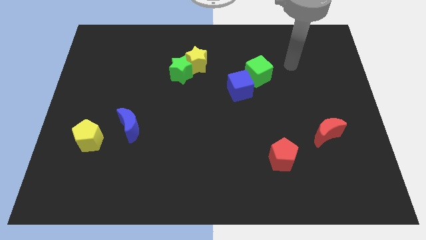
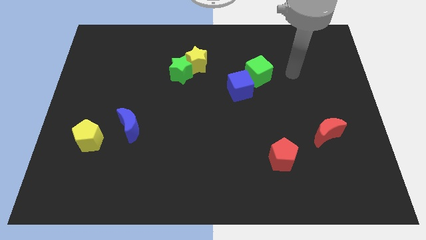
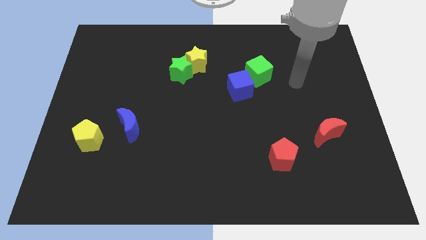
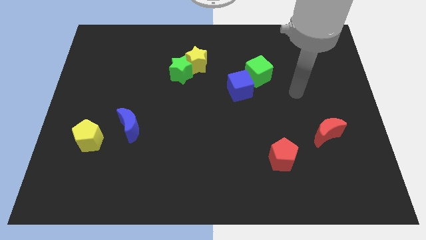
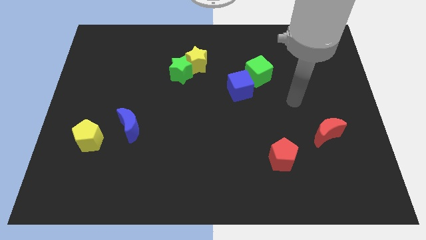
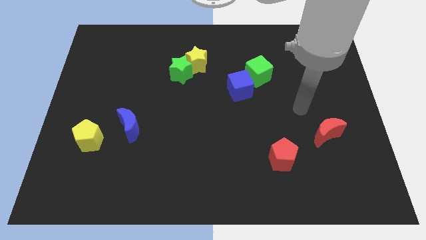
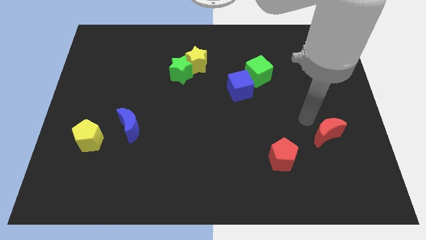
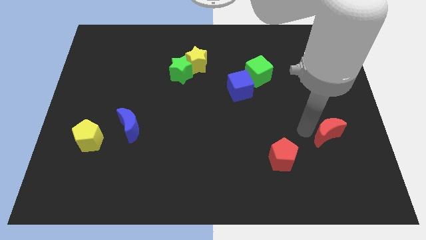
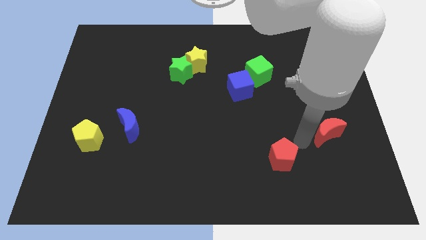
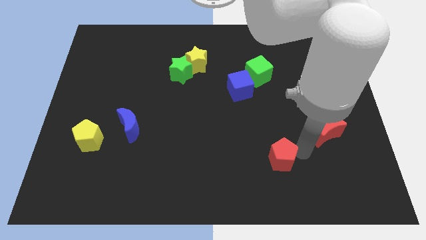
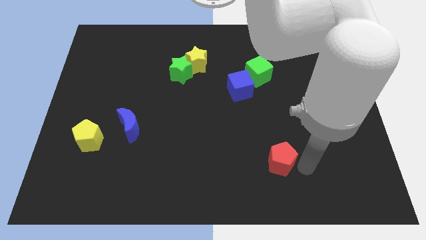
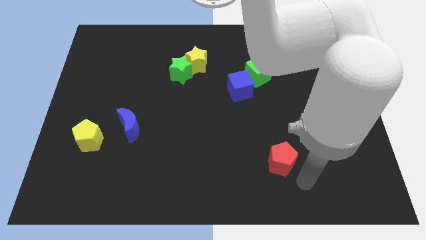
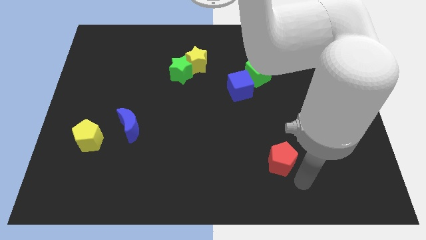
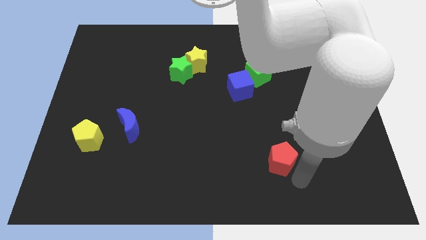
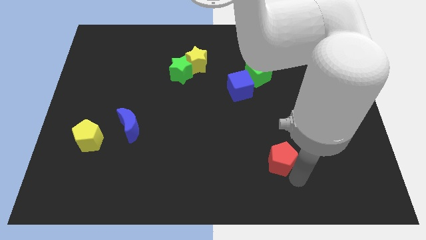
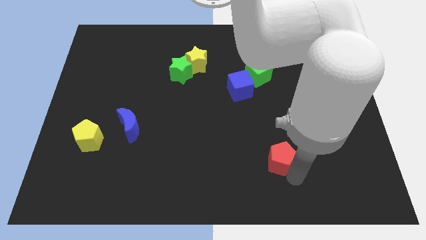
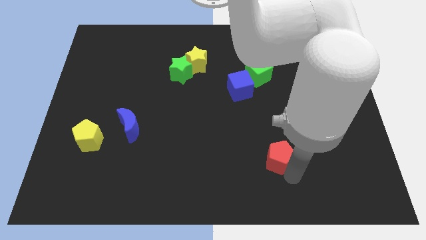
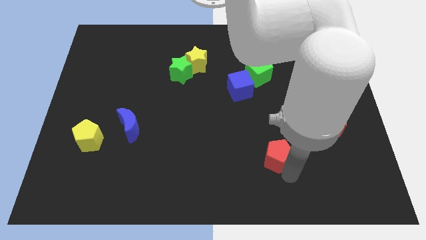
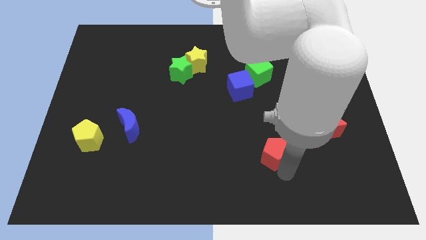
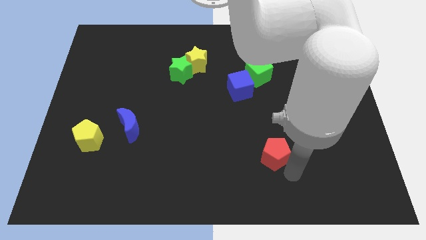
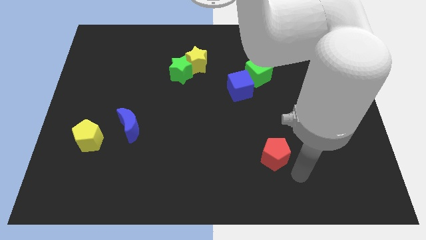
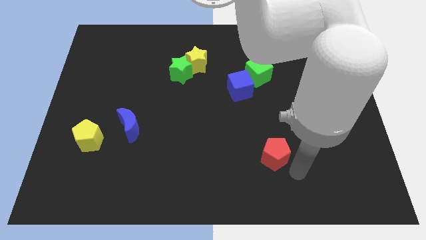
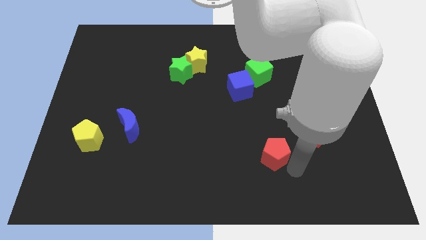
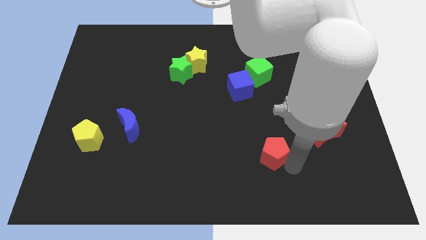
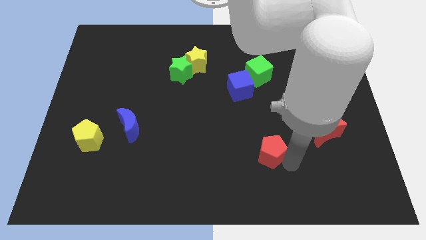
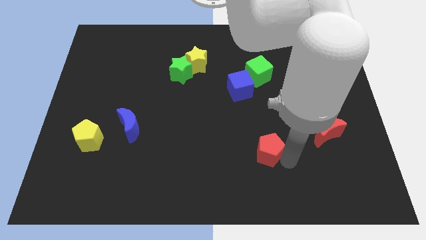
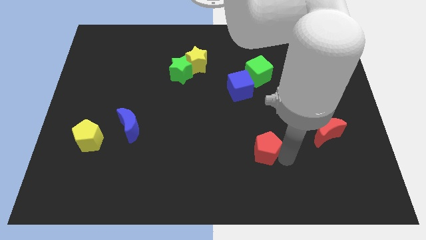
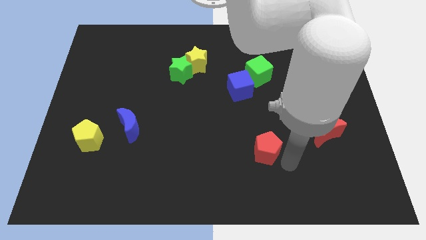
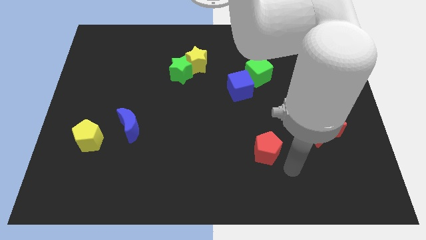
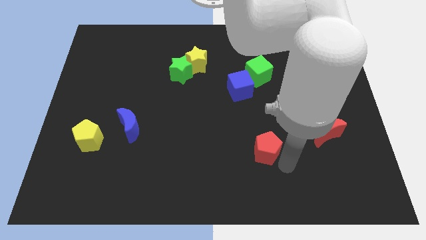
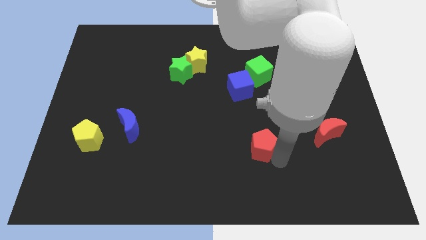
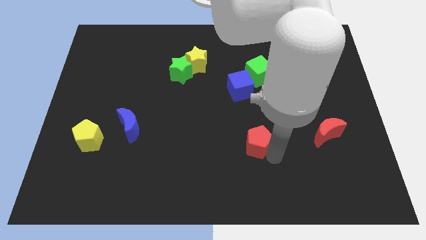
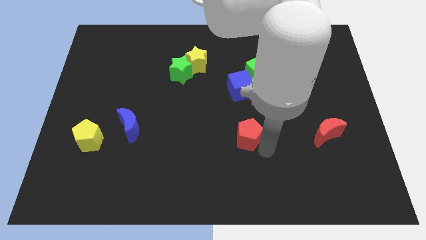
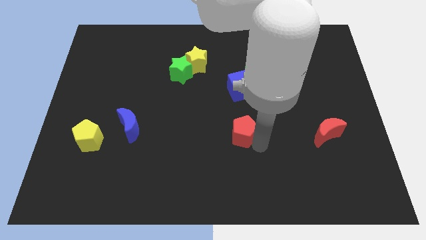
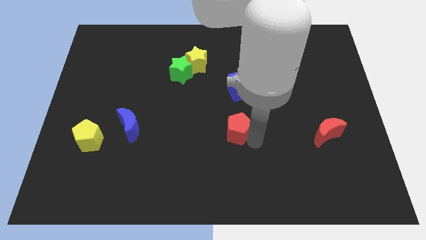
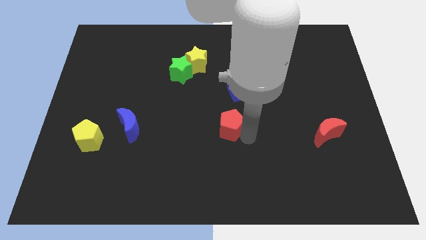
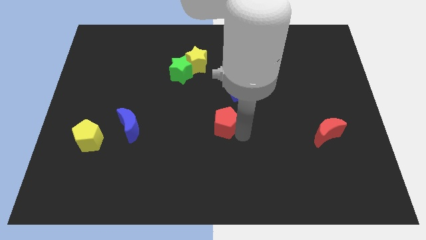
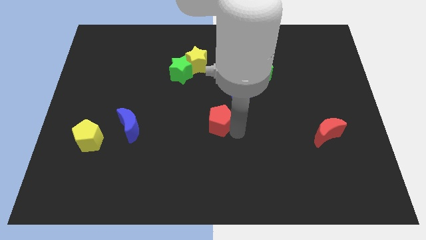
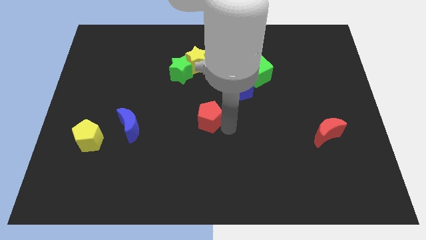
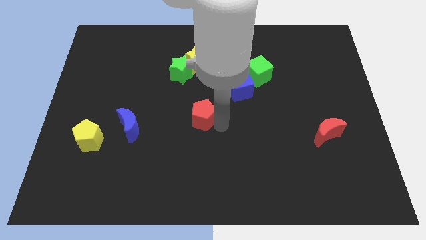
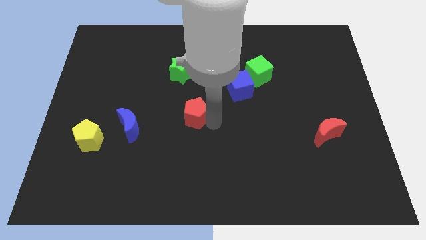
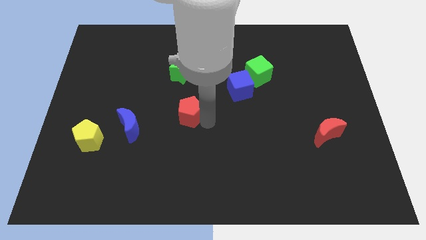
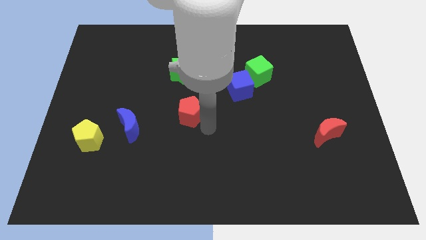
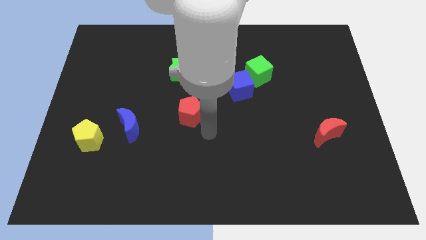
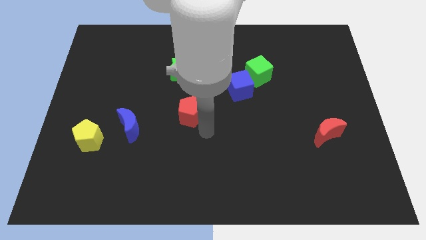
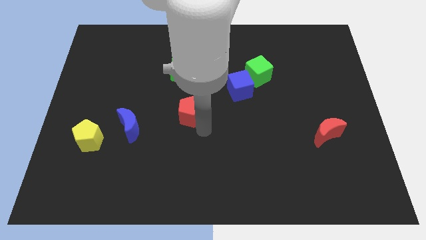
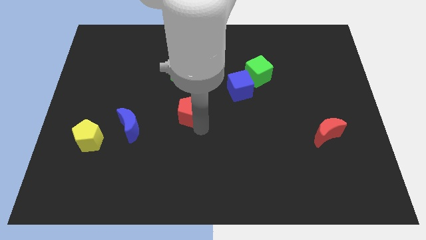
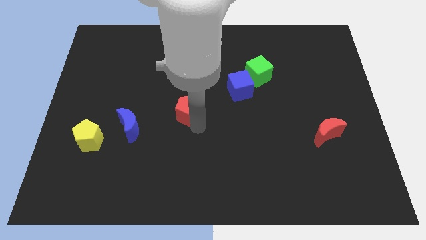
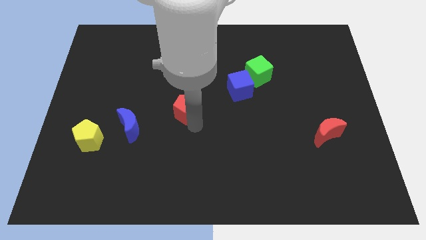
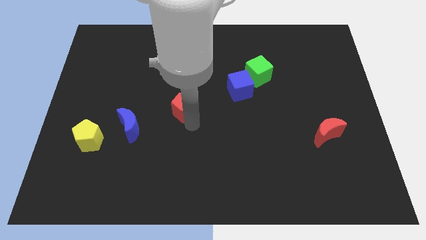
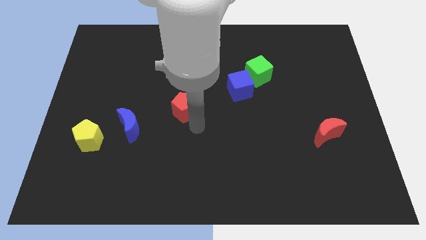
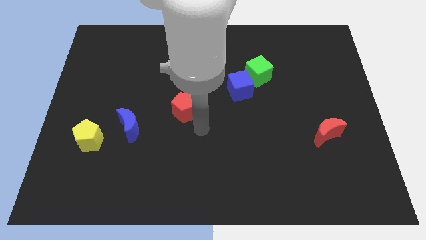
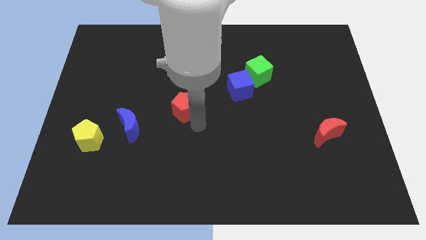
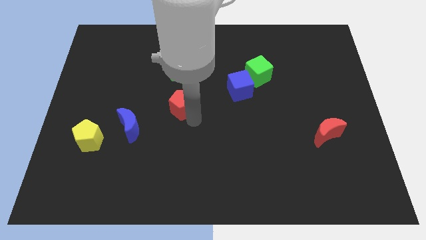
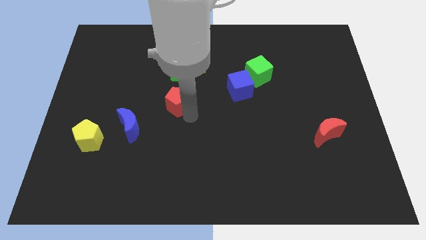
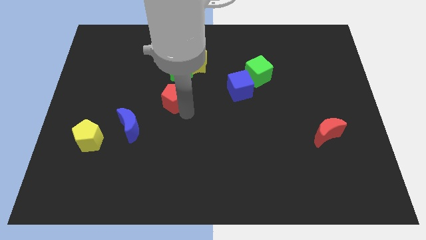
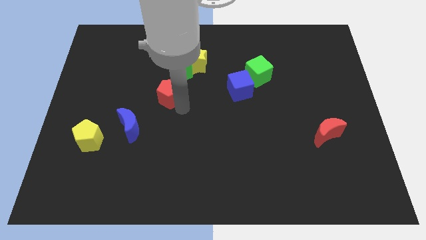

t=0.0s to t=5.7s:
put the red pentagon diagonally down and to the left of the green star

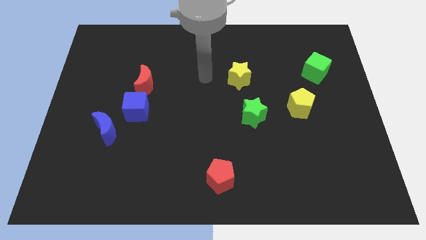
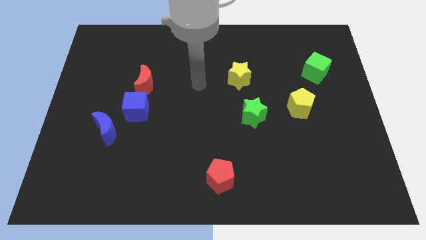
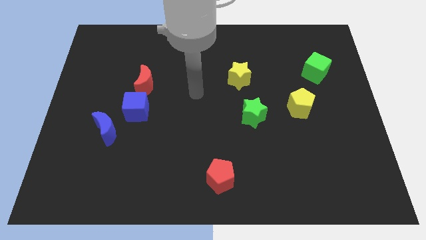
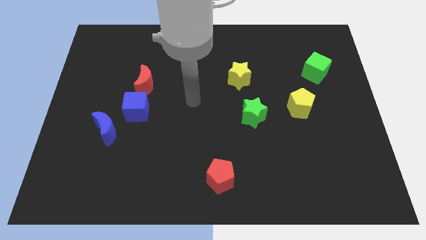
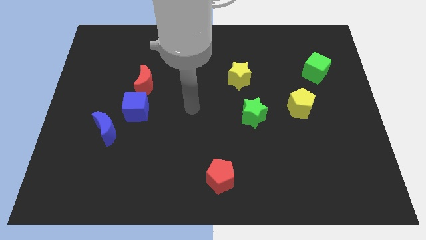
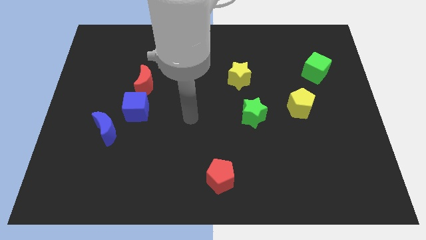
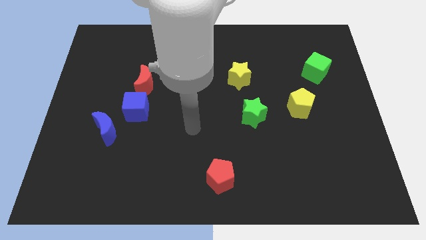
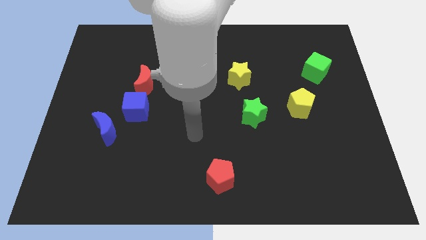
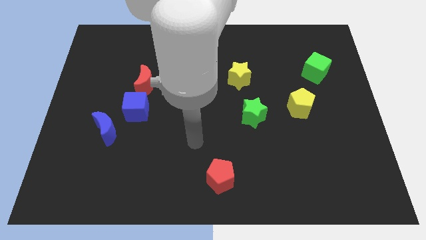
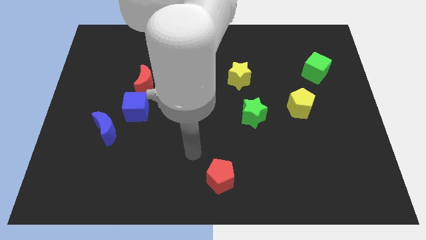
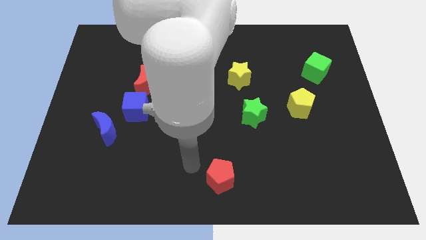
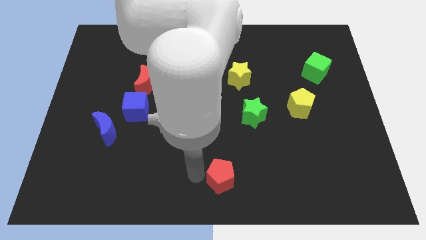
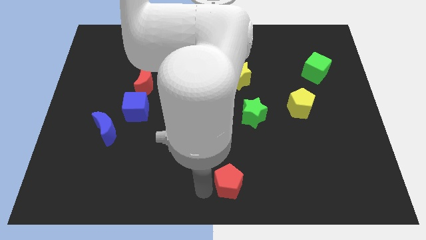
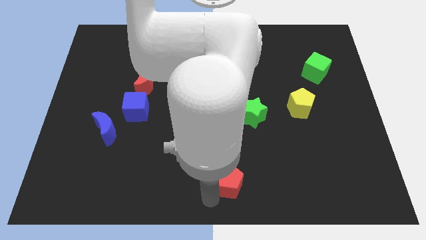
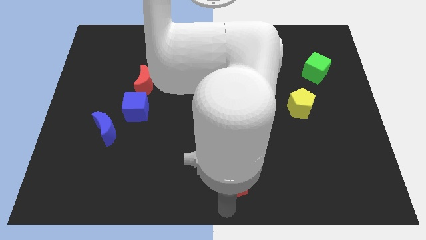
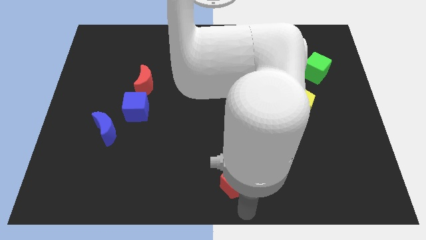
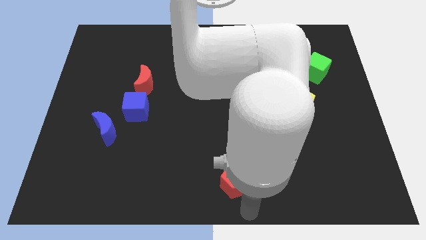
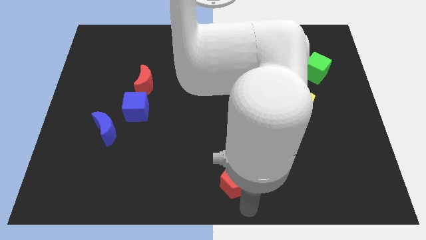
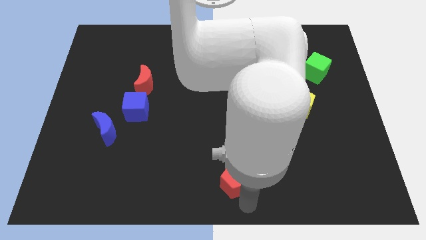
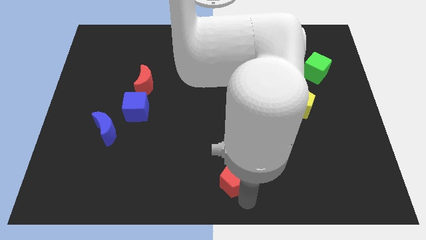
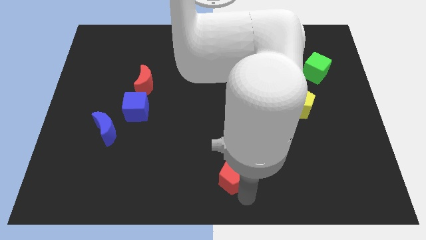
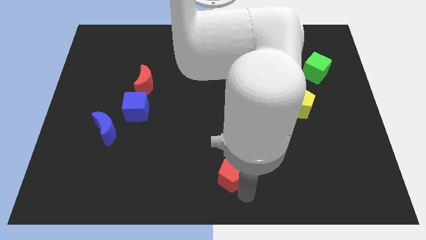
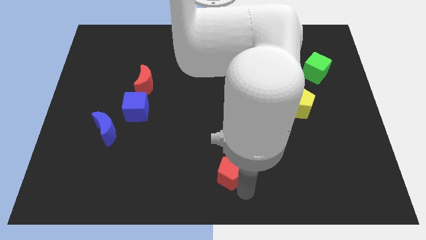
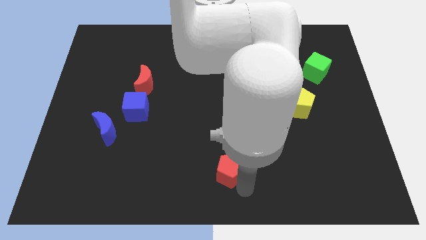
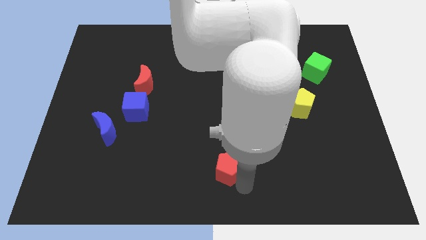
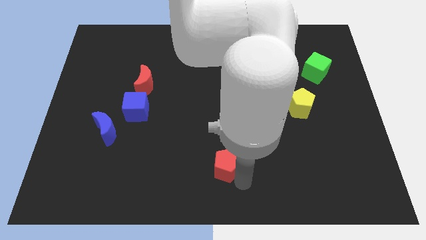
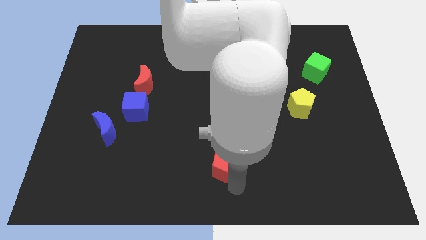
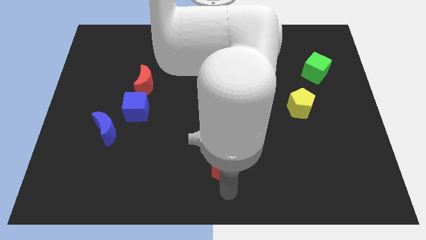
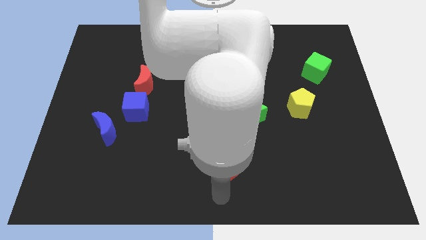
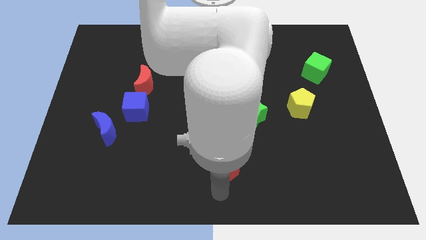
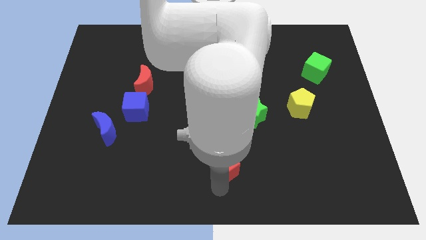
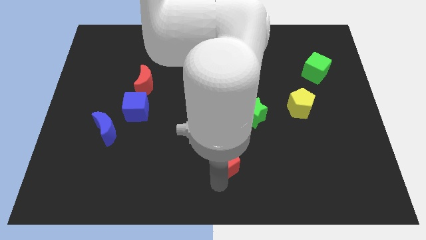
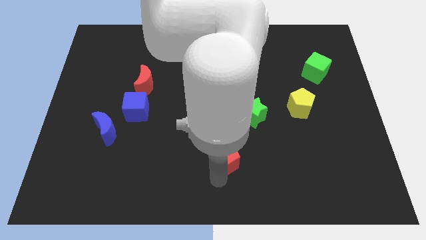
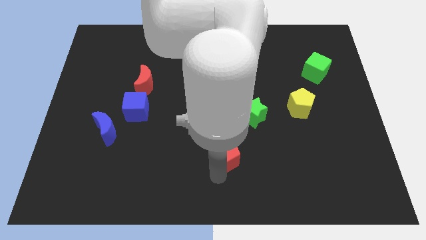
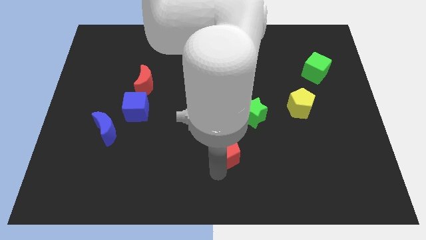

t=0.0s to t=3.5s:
put the red pentagon to the bottom left of the green star
